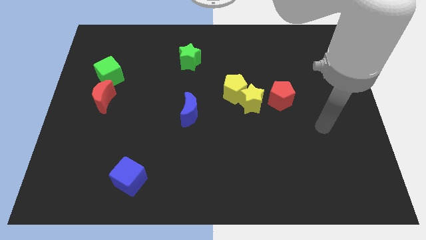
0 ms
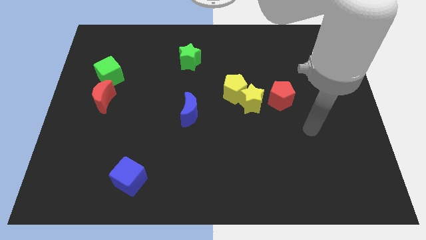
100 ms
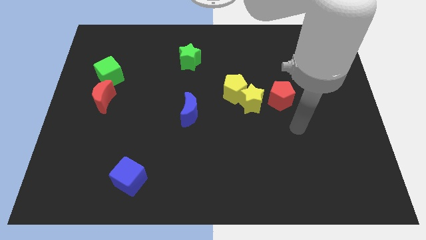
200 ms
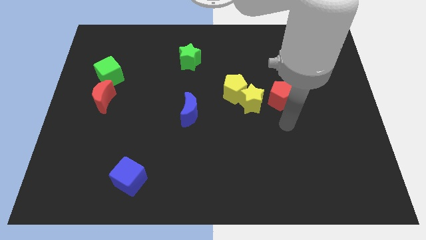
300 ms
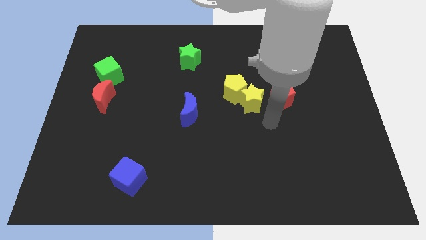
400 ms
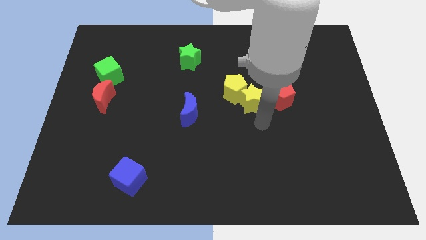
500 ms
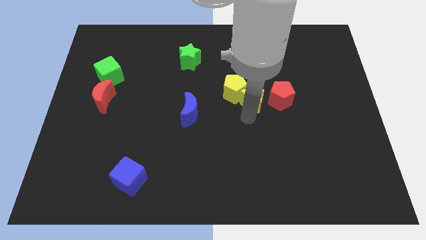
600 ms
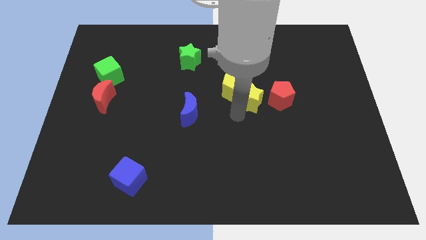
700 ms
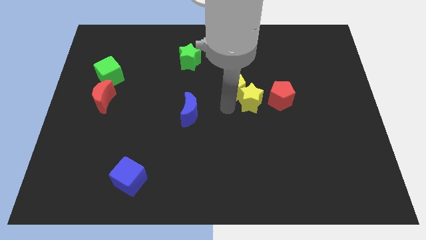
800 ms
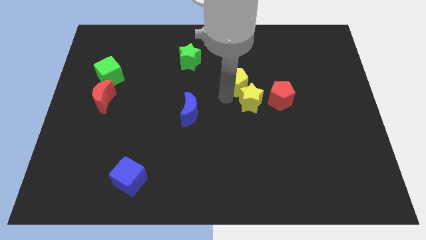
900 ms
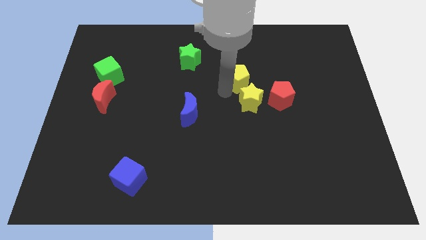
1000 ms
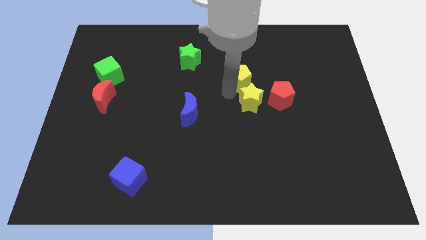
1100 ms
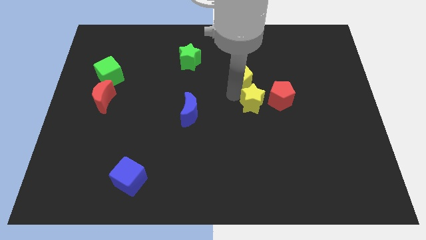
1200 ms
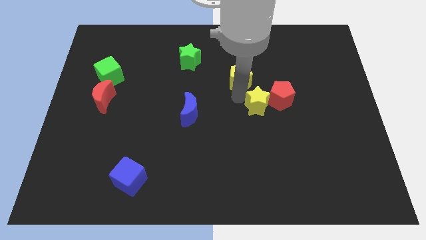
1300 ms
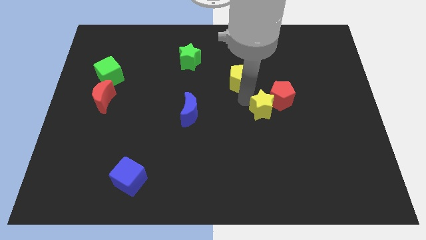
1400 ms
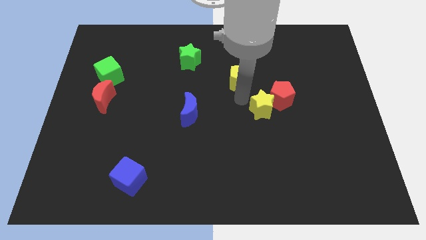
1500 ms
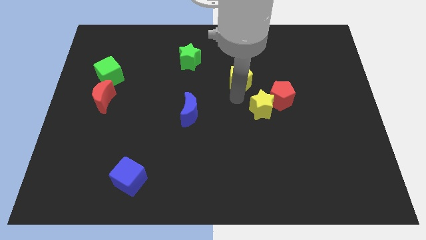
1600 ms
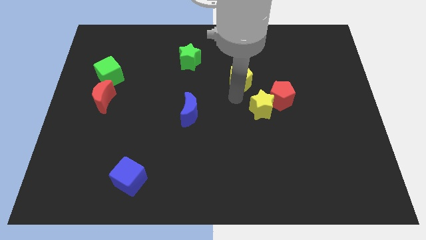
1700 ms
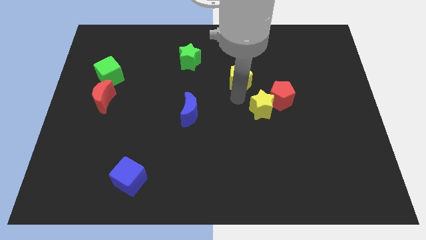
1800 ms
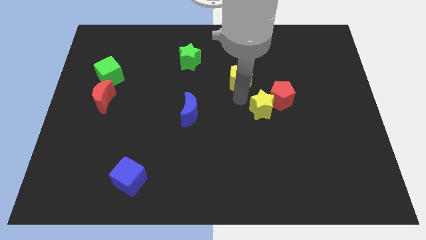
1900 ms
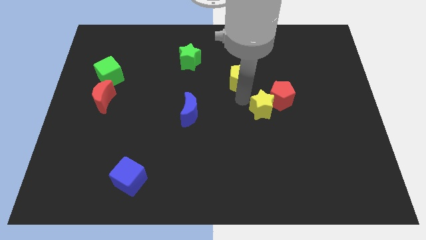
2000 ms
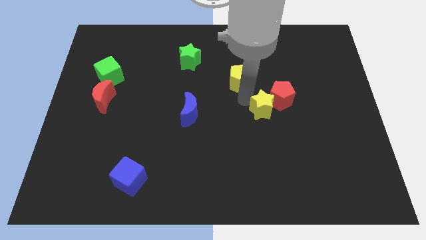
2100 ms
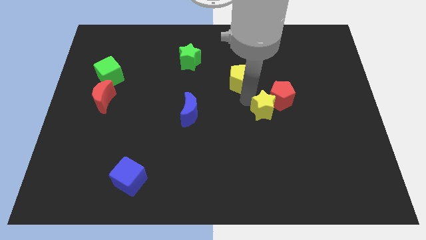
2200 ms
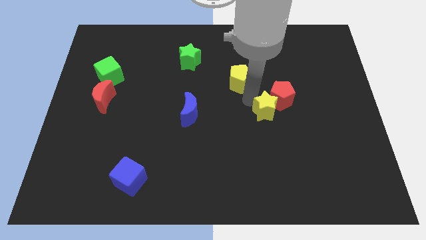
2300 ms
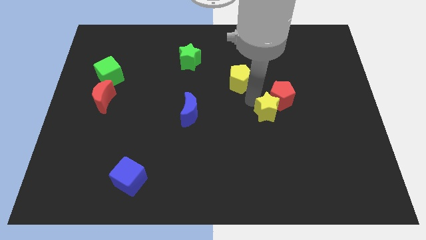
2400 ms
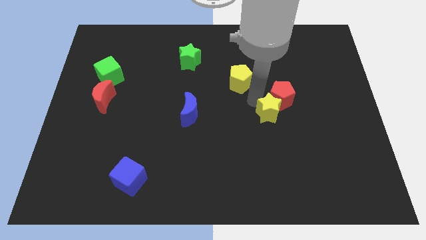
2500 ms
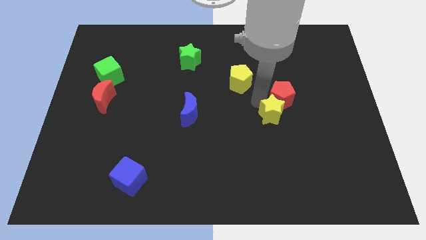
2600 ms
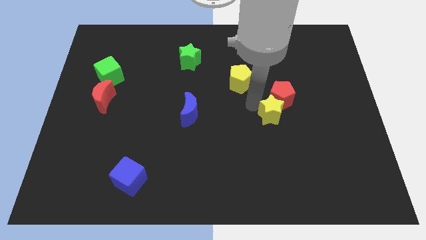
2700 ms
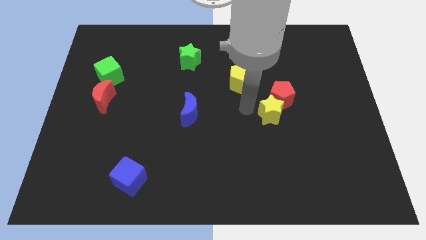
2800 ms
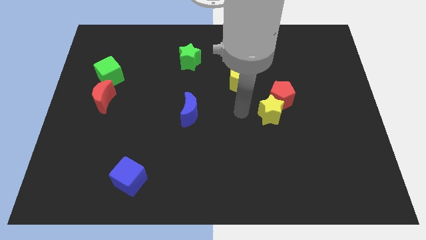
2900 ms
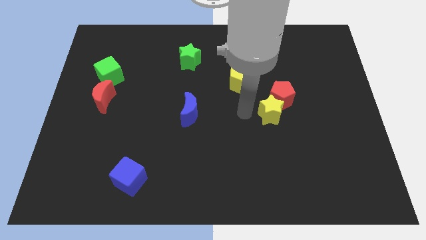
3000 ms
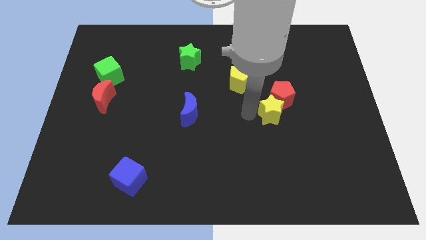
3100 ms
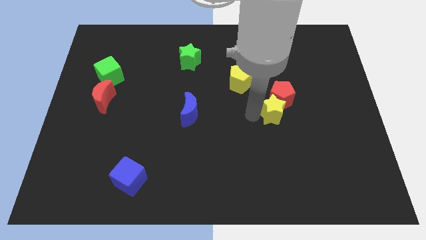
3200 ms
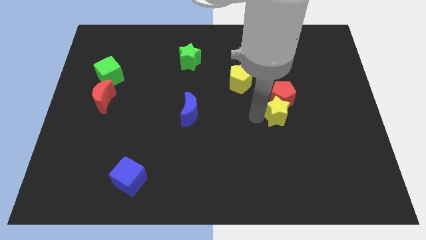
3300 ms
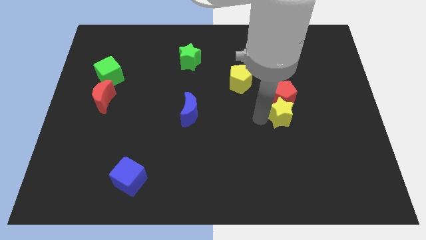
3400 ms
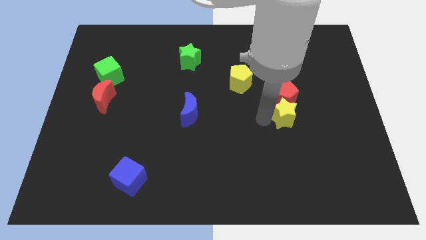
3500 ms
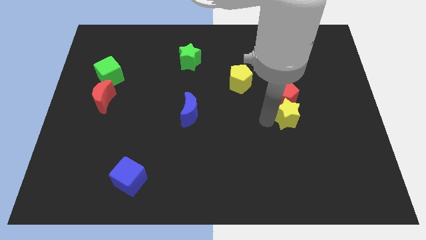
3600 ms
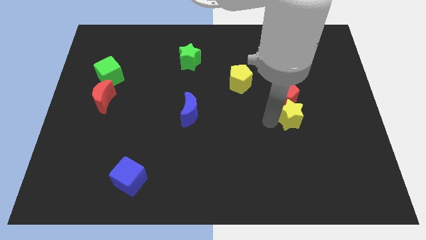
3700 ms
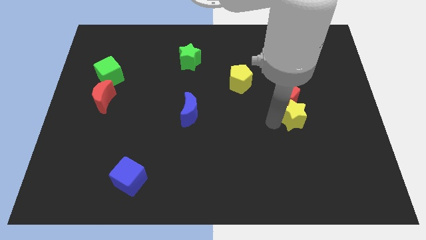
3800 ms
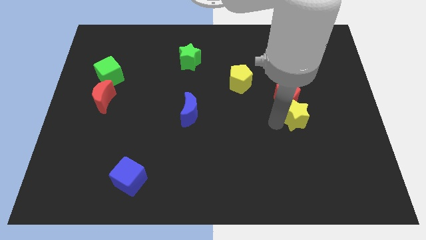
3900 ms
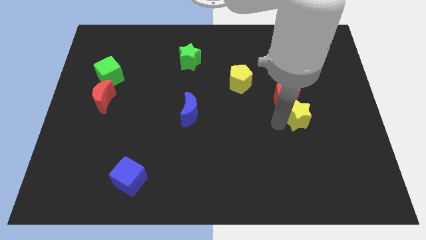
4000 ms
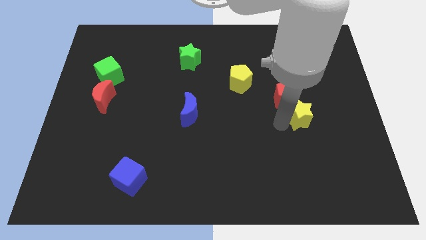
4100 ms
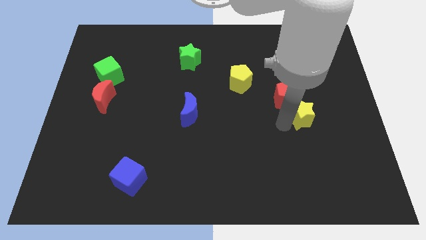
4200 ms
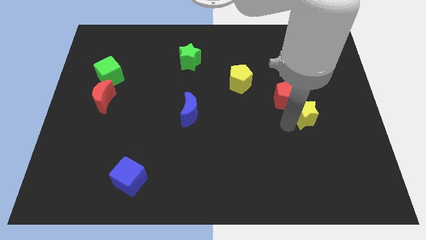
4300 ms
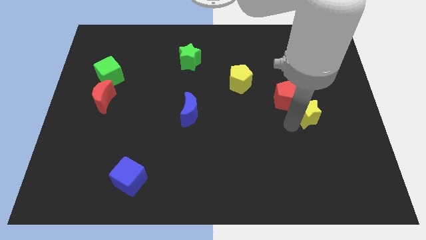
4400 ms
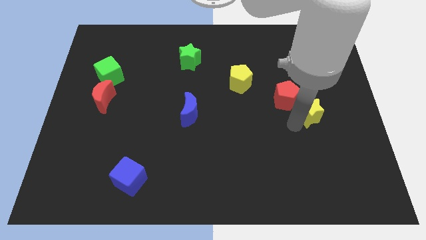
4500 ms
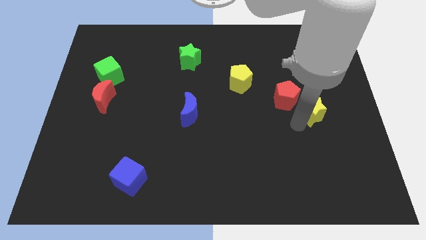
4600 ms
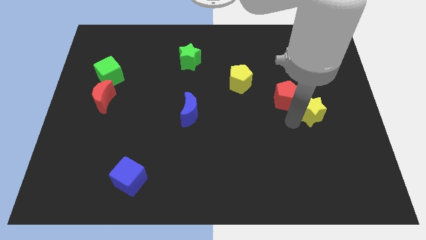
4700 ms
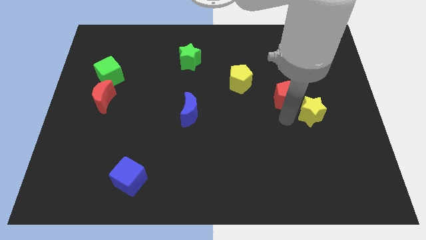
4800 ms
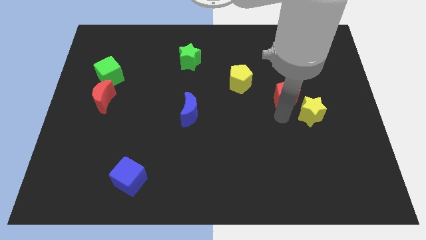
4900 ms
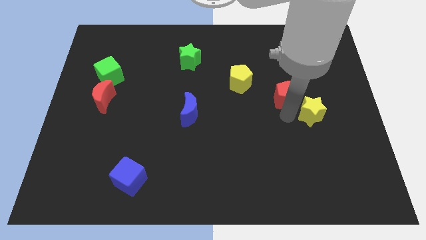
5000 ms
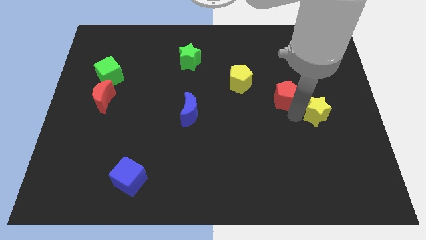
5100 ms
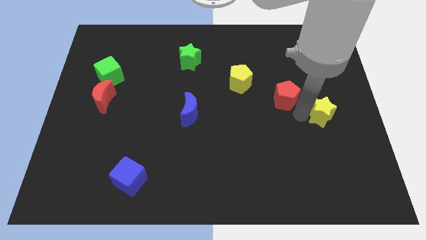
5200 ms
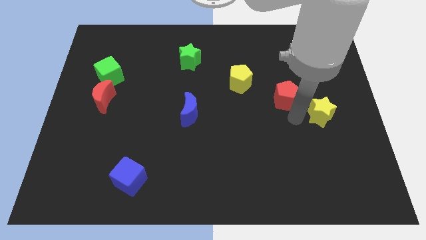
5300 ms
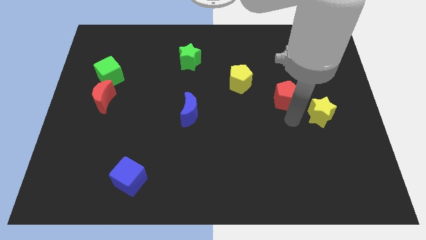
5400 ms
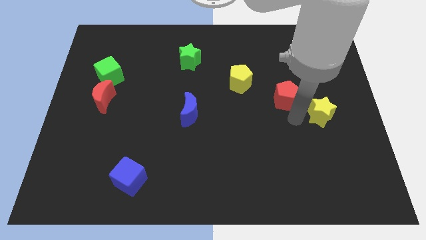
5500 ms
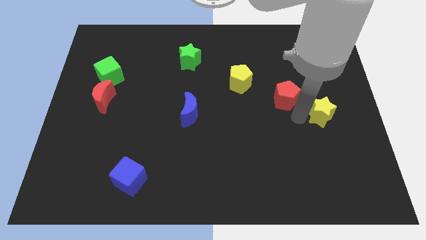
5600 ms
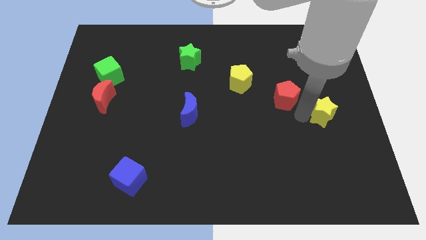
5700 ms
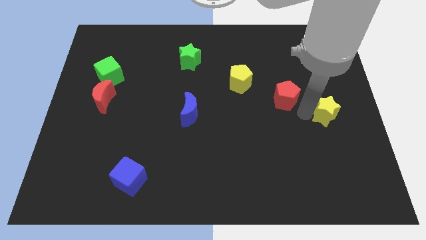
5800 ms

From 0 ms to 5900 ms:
push the yellow star to the right side of the board
